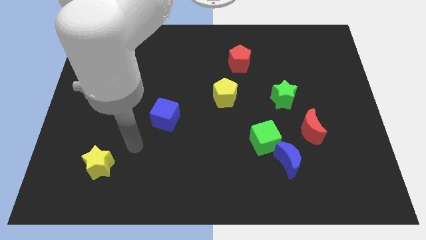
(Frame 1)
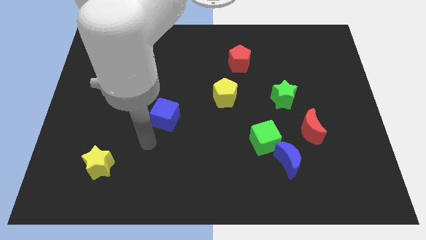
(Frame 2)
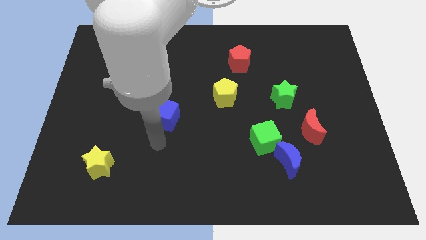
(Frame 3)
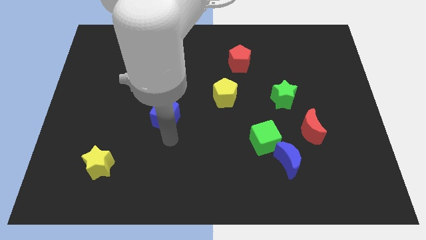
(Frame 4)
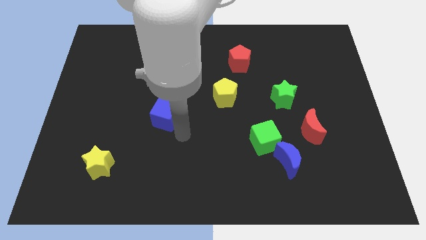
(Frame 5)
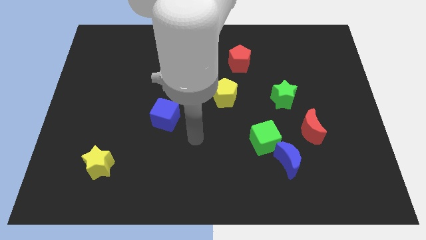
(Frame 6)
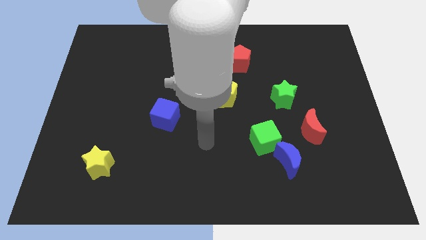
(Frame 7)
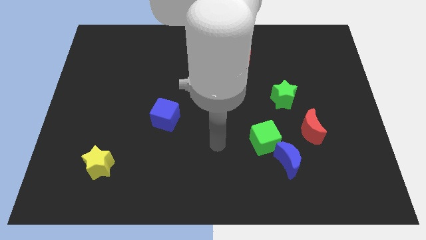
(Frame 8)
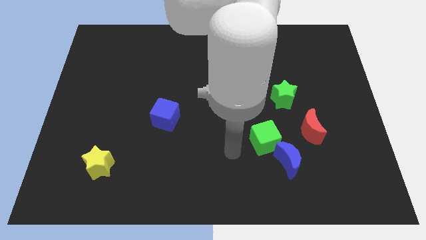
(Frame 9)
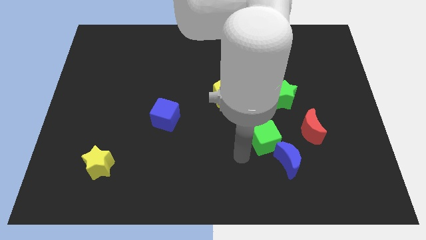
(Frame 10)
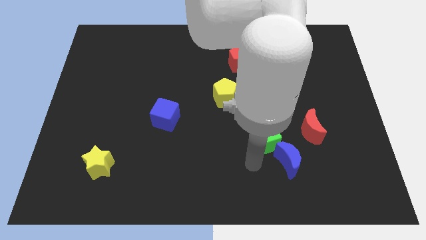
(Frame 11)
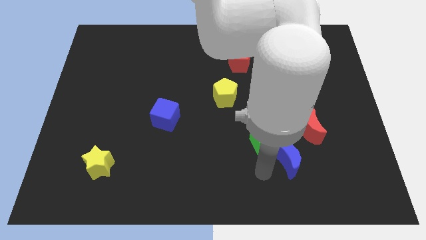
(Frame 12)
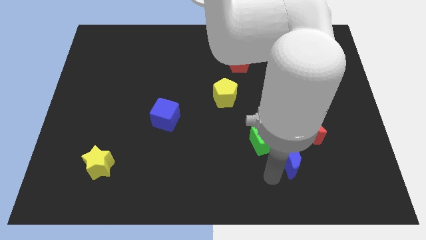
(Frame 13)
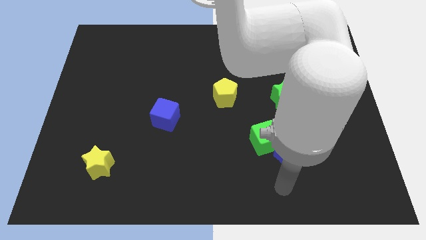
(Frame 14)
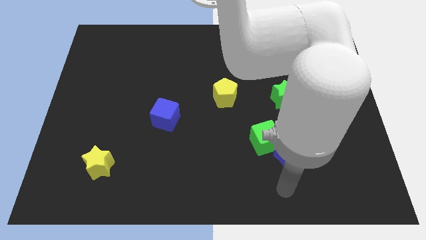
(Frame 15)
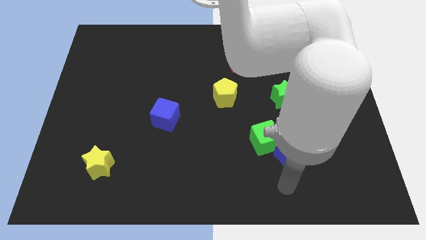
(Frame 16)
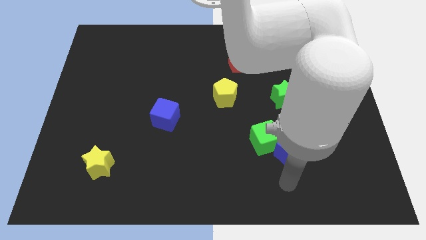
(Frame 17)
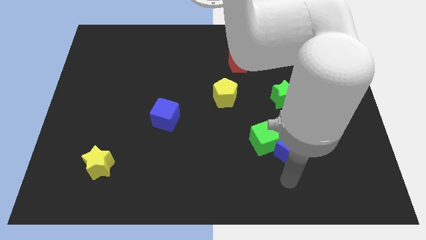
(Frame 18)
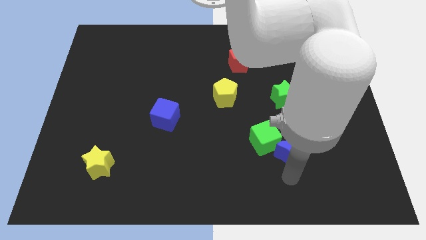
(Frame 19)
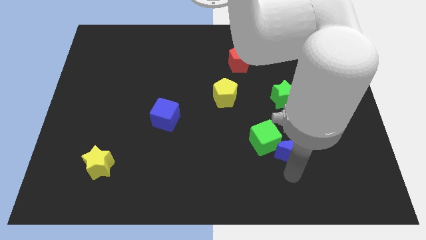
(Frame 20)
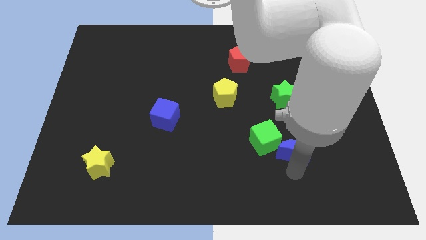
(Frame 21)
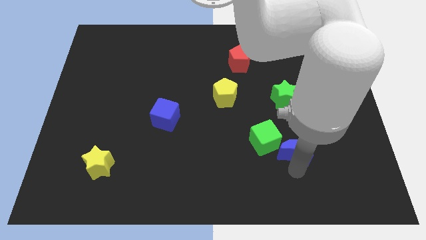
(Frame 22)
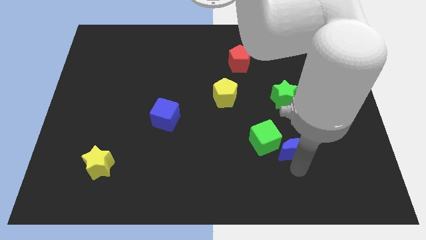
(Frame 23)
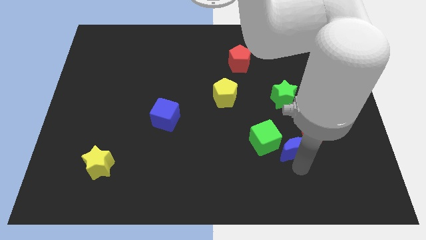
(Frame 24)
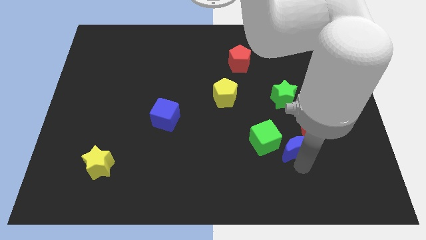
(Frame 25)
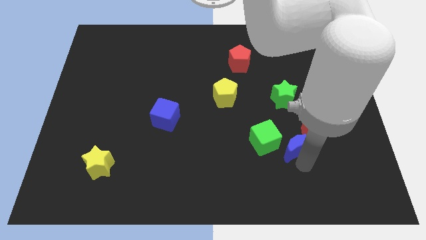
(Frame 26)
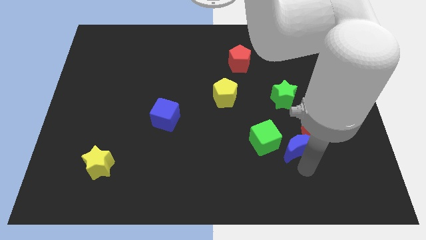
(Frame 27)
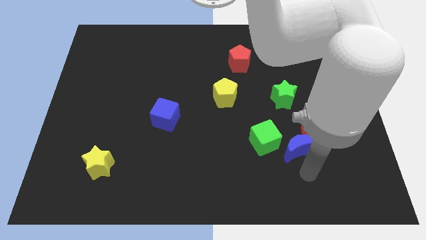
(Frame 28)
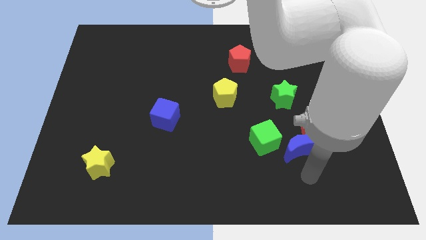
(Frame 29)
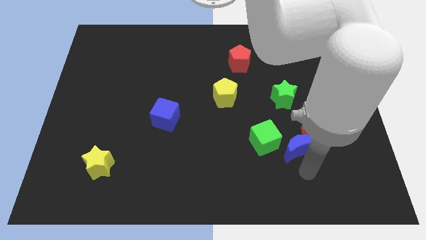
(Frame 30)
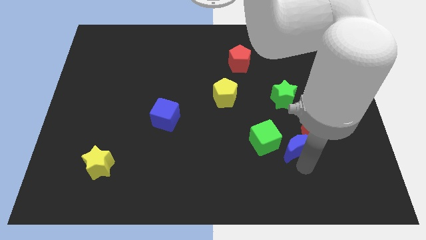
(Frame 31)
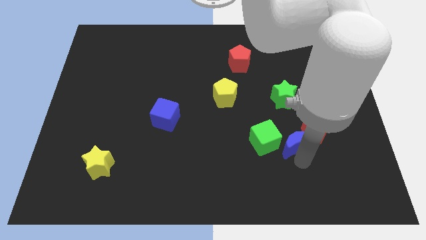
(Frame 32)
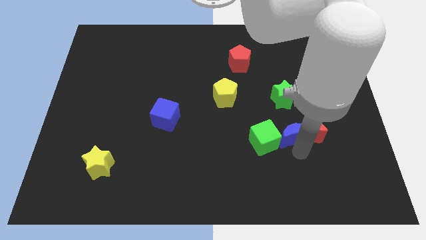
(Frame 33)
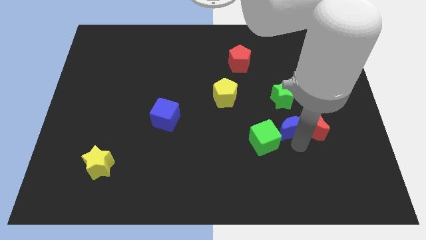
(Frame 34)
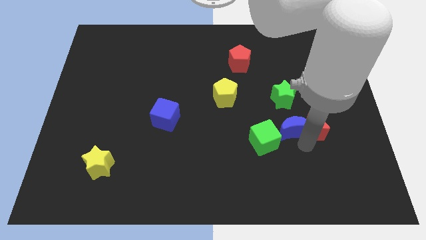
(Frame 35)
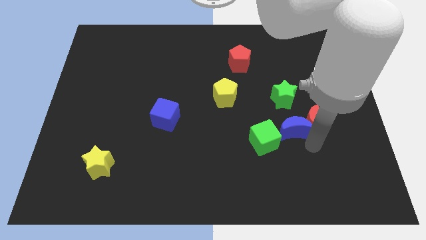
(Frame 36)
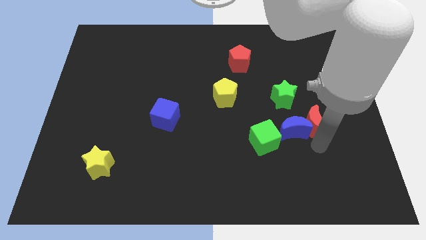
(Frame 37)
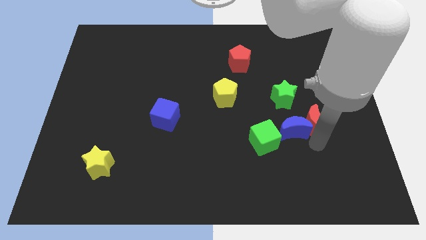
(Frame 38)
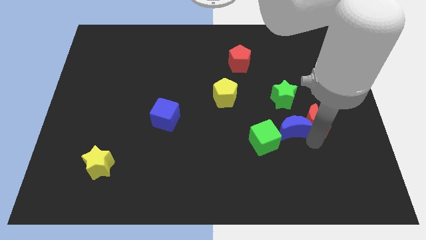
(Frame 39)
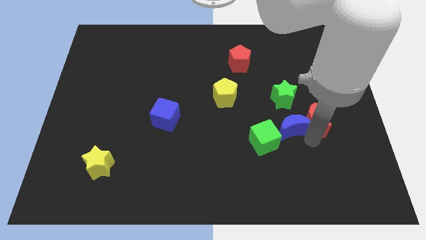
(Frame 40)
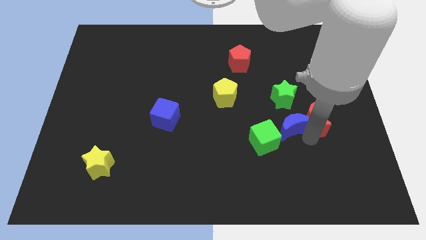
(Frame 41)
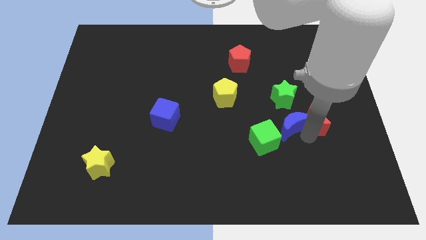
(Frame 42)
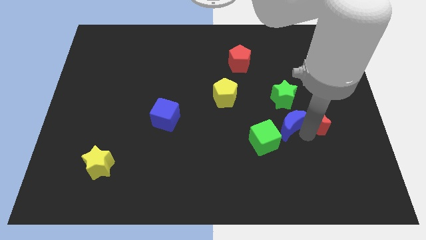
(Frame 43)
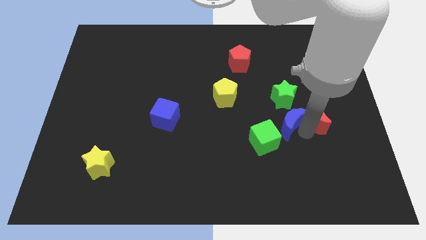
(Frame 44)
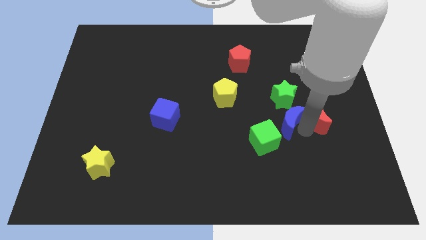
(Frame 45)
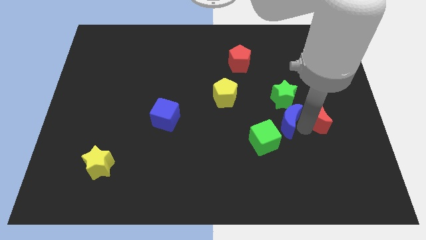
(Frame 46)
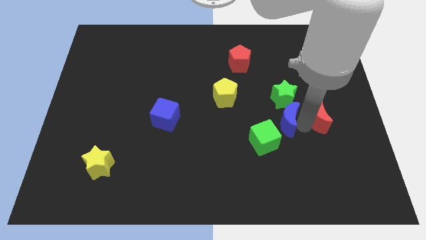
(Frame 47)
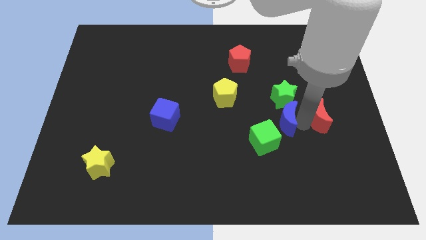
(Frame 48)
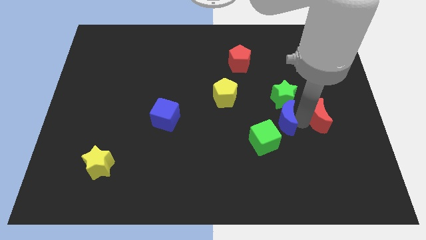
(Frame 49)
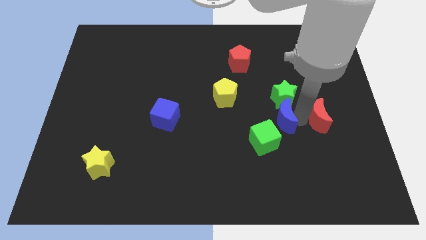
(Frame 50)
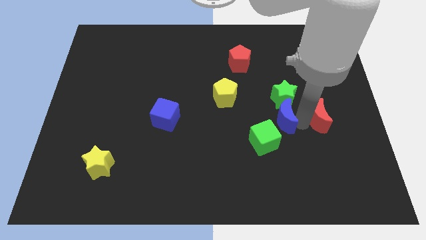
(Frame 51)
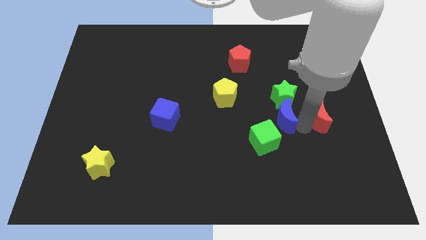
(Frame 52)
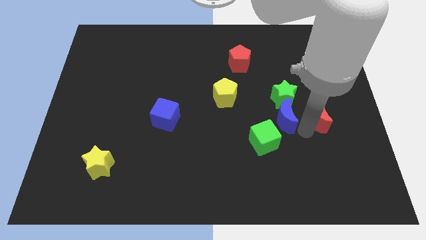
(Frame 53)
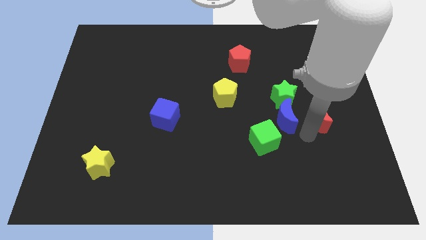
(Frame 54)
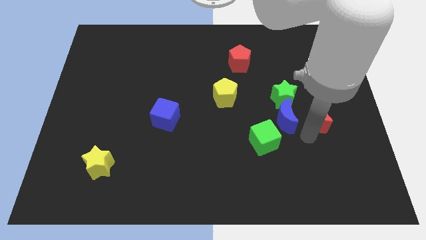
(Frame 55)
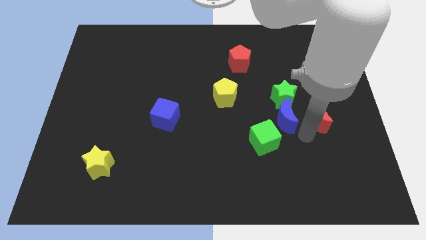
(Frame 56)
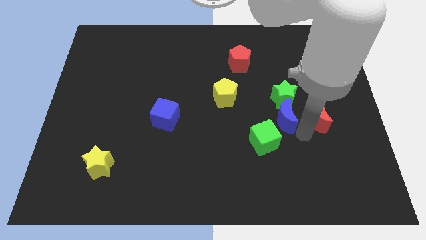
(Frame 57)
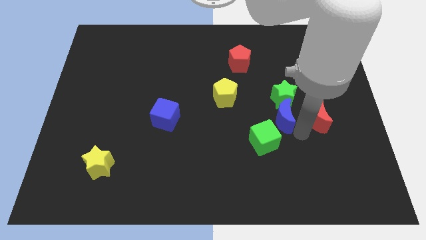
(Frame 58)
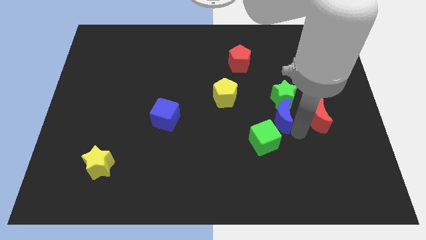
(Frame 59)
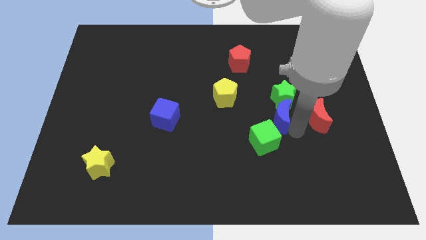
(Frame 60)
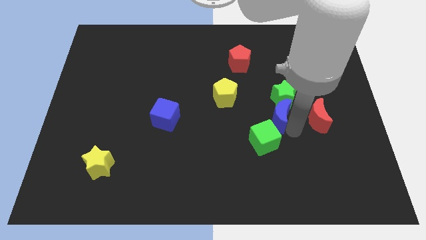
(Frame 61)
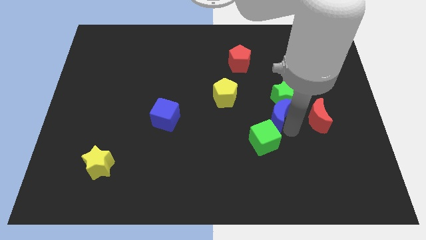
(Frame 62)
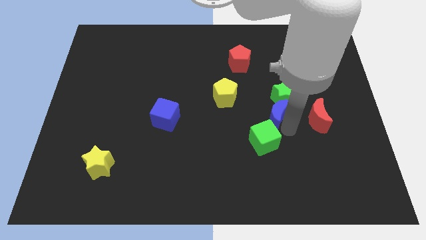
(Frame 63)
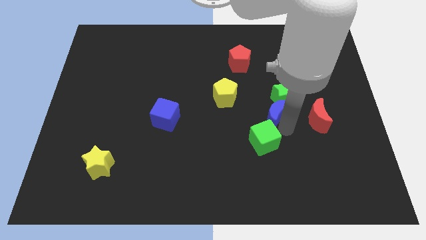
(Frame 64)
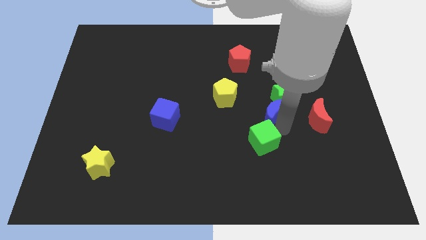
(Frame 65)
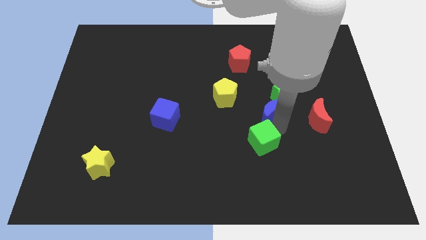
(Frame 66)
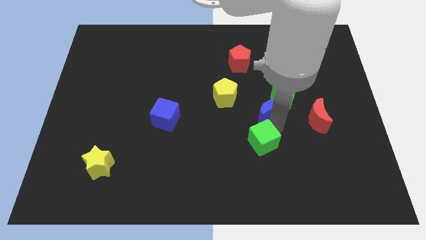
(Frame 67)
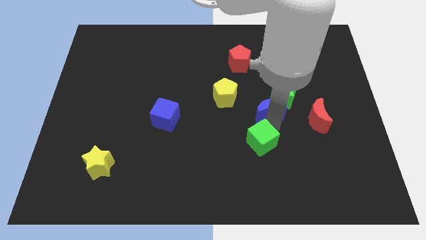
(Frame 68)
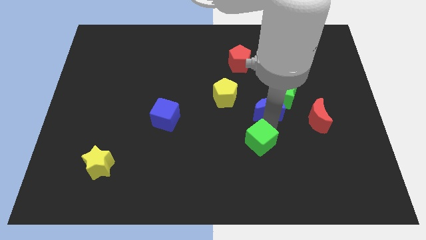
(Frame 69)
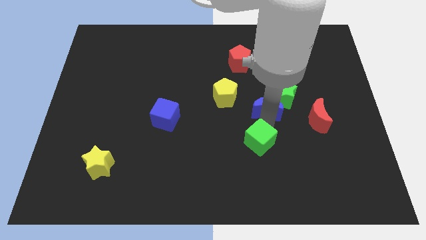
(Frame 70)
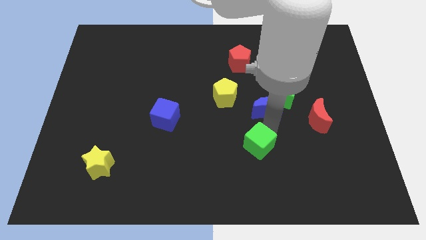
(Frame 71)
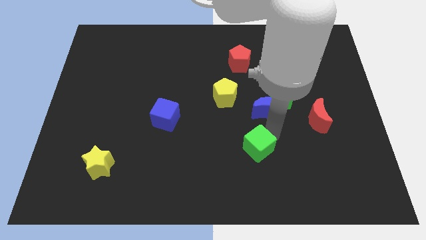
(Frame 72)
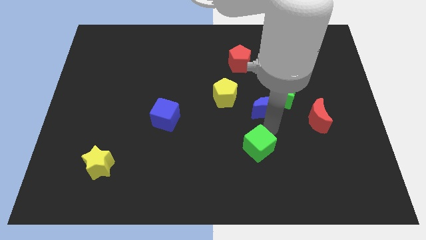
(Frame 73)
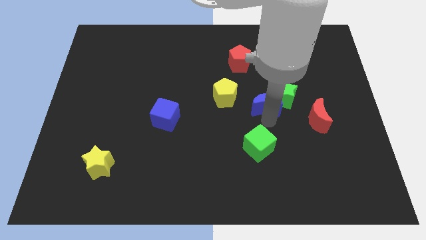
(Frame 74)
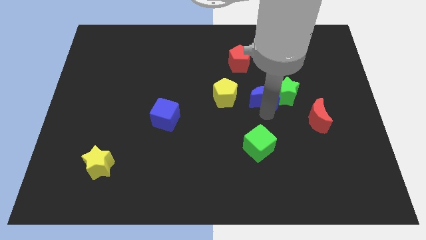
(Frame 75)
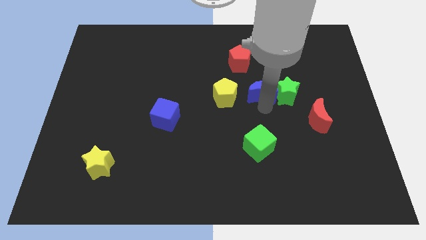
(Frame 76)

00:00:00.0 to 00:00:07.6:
put the blue moon to the top left side of the green star
